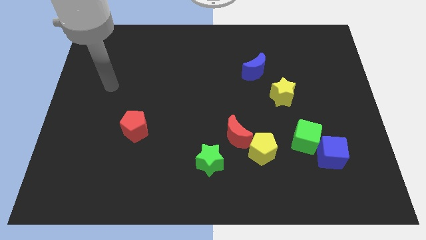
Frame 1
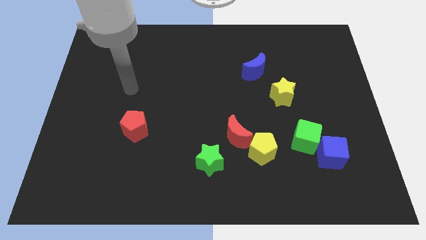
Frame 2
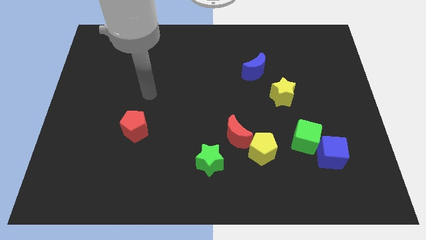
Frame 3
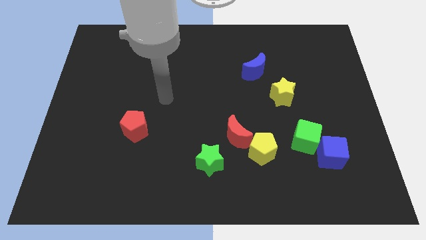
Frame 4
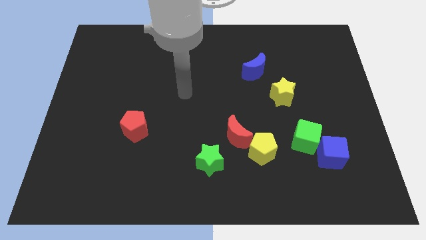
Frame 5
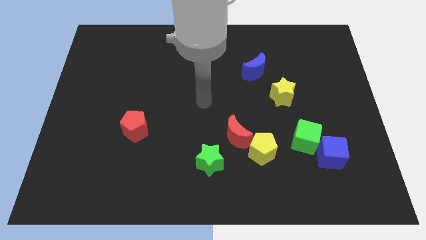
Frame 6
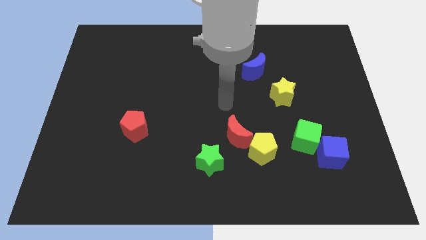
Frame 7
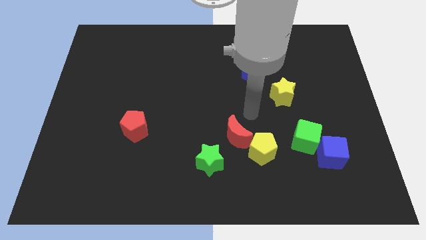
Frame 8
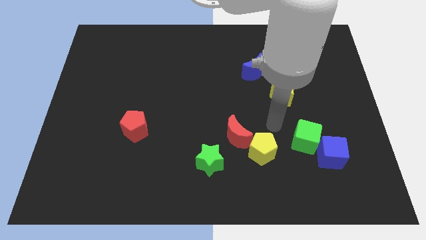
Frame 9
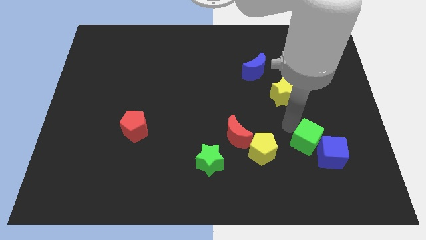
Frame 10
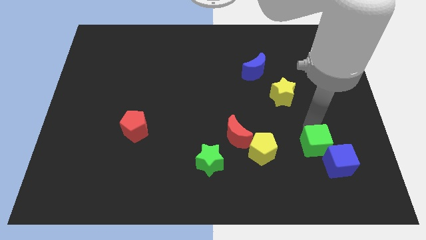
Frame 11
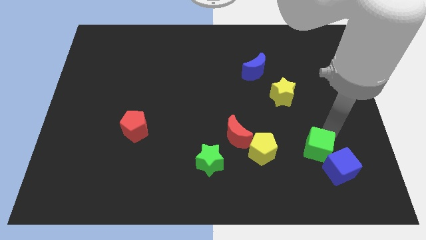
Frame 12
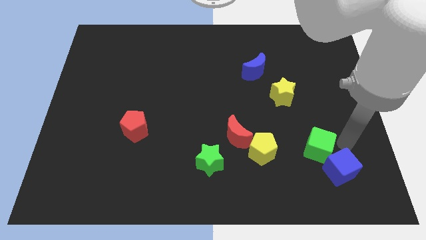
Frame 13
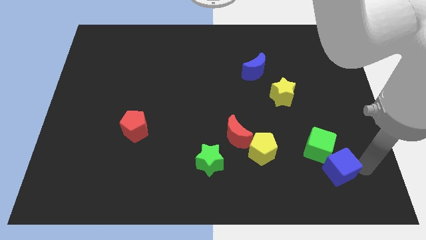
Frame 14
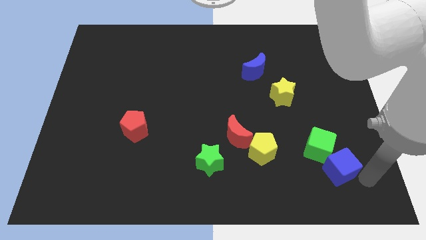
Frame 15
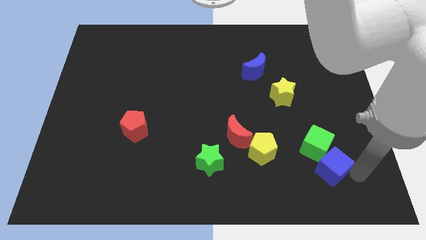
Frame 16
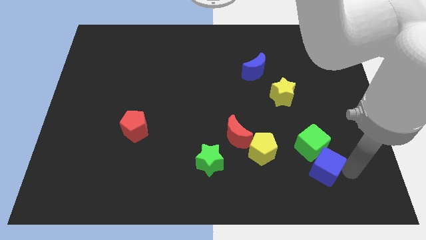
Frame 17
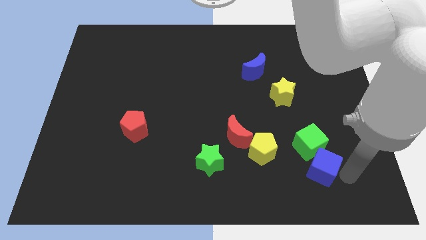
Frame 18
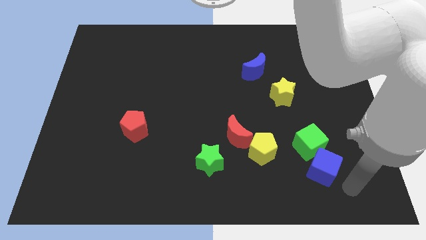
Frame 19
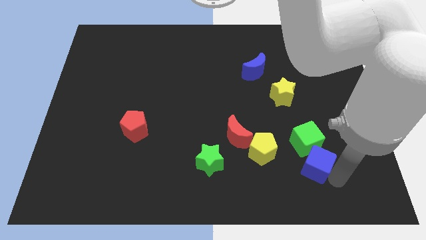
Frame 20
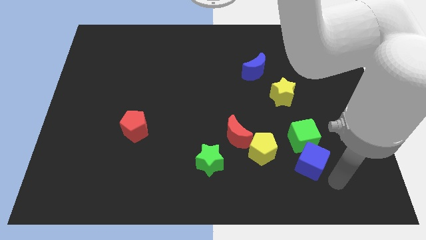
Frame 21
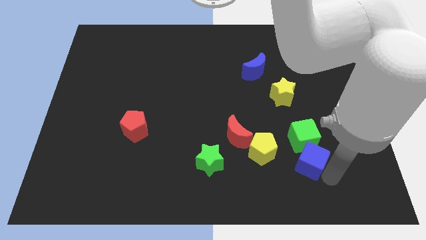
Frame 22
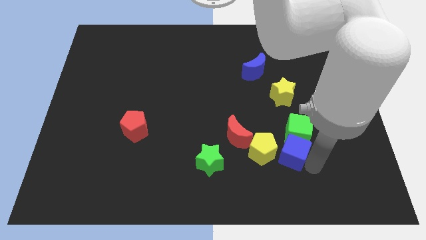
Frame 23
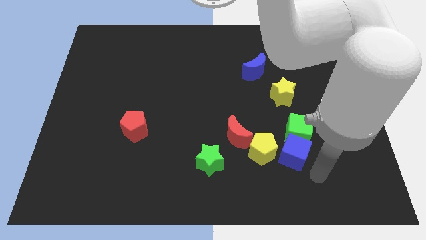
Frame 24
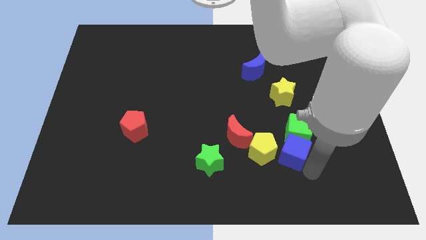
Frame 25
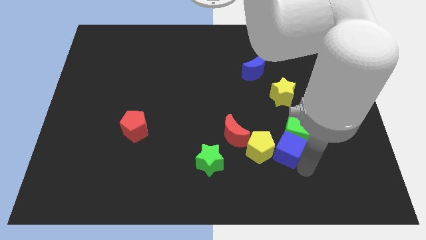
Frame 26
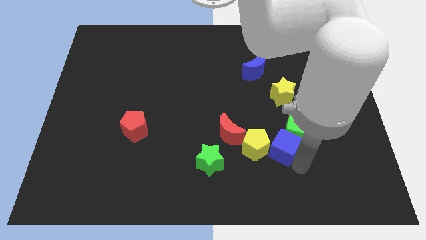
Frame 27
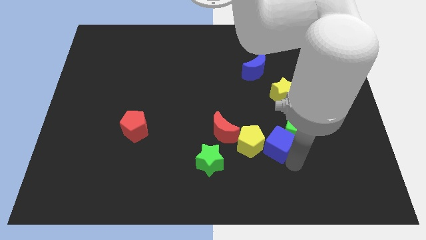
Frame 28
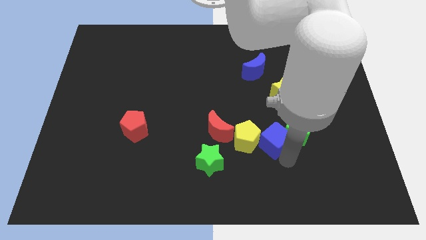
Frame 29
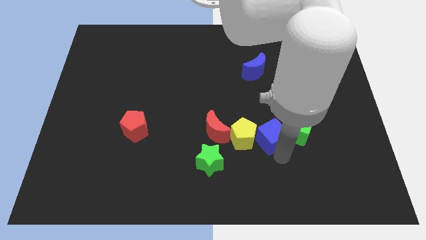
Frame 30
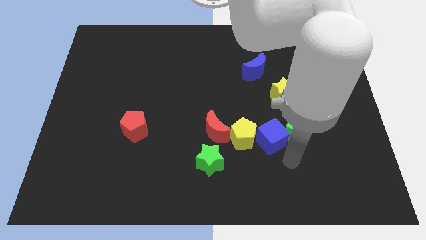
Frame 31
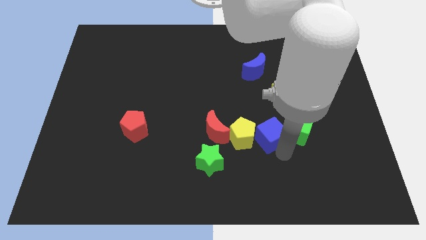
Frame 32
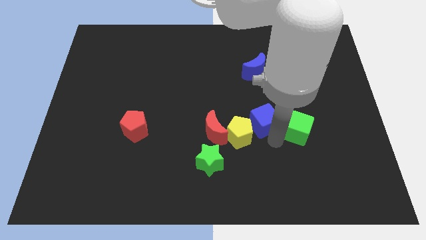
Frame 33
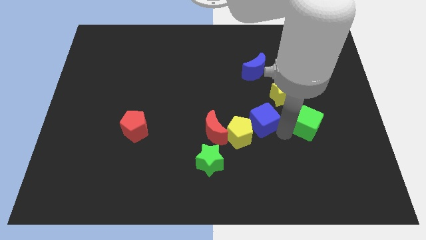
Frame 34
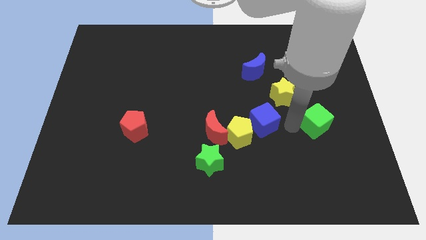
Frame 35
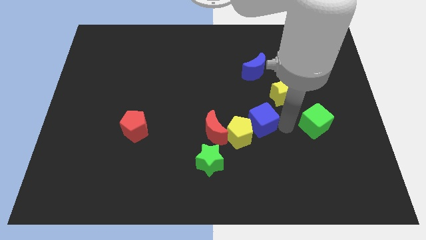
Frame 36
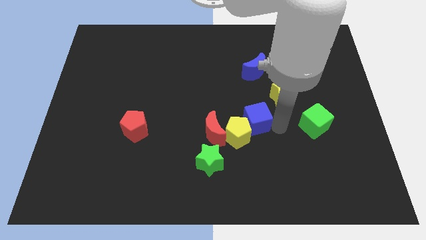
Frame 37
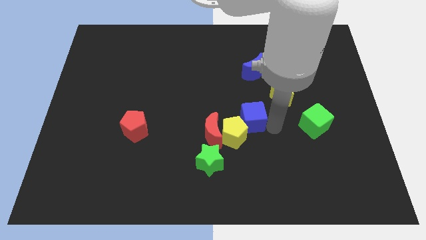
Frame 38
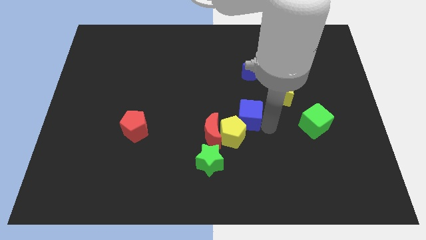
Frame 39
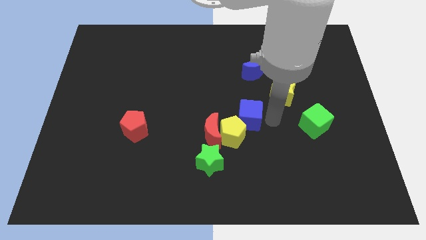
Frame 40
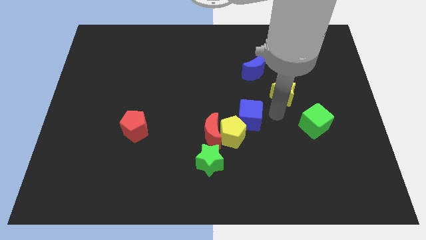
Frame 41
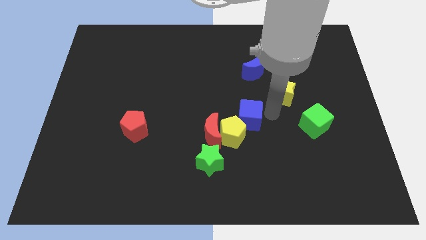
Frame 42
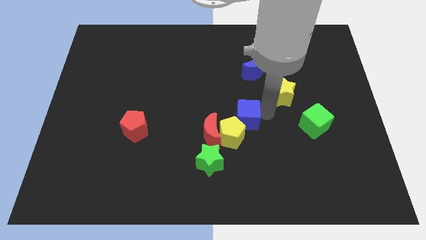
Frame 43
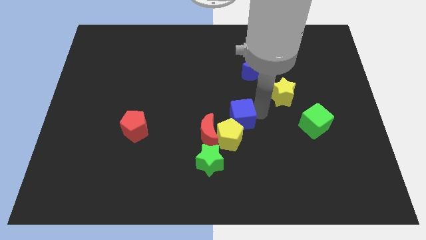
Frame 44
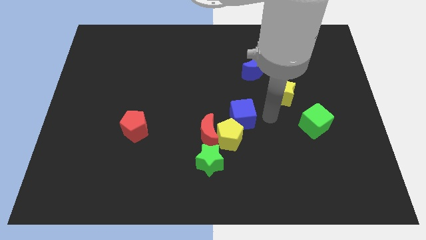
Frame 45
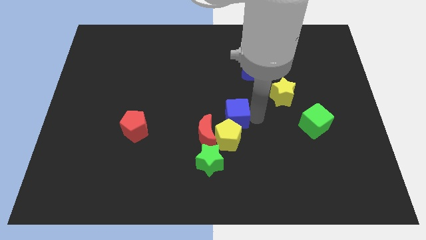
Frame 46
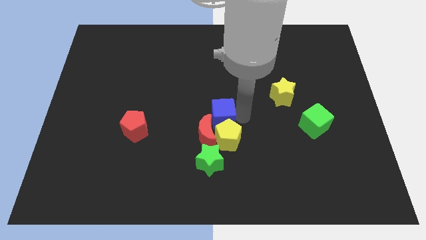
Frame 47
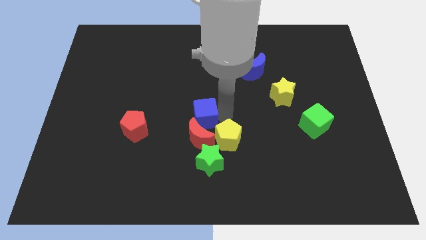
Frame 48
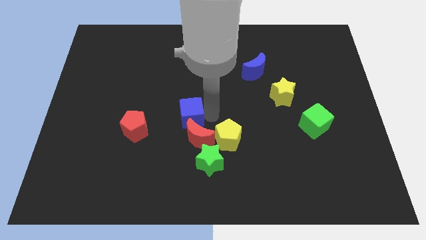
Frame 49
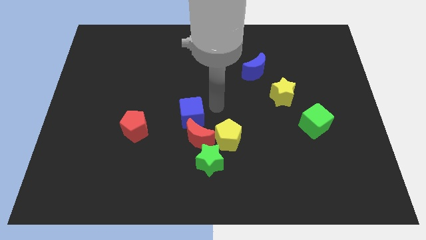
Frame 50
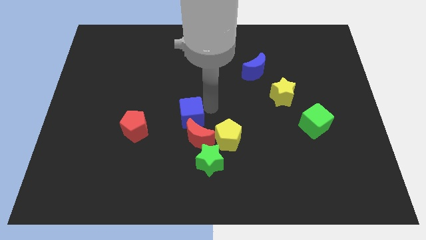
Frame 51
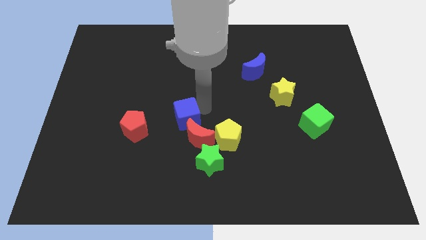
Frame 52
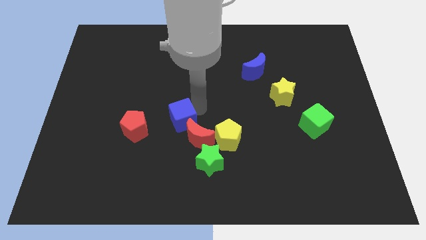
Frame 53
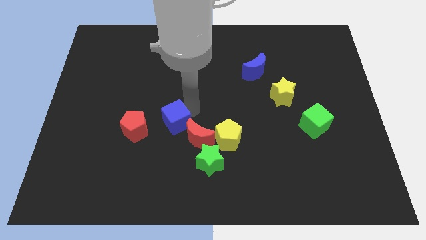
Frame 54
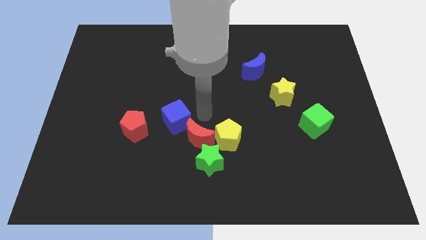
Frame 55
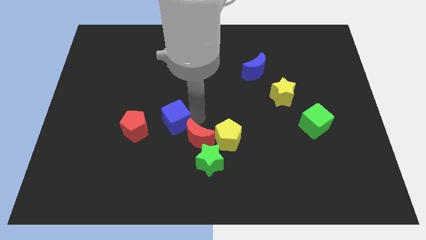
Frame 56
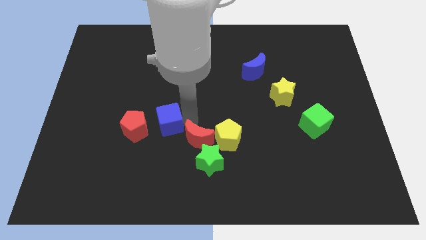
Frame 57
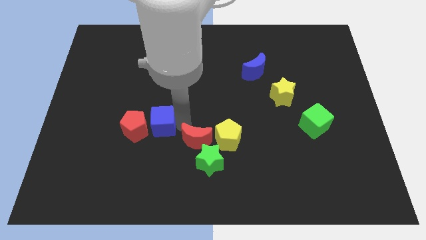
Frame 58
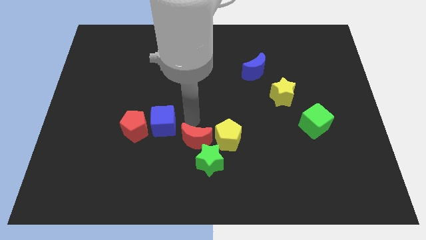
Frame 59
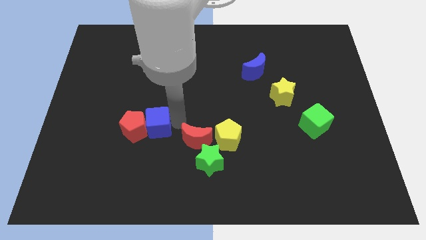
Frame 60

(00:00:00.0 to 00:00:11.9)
put the blue cube next to the red pentagon

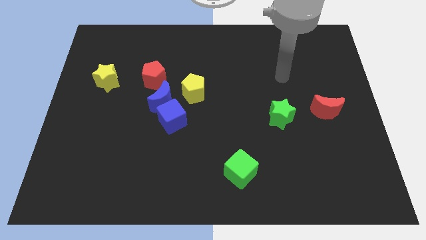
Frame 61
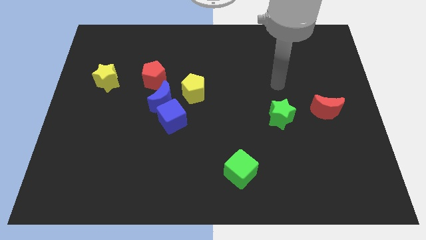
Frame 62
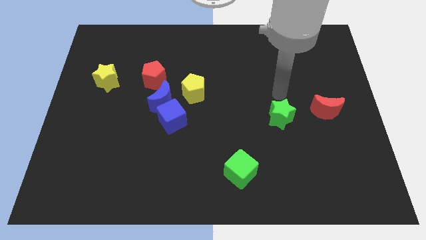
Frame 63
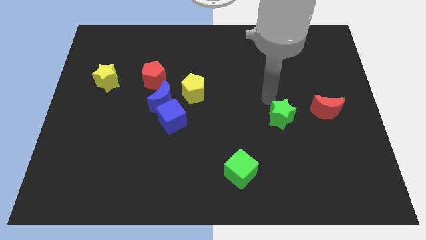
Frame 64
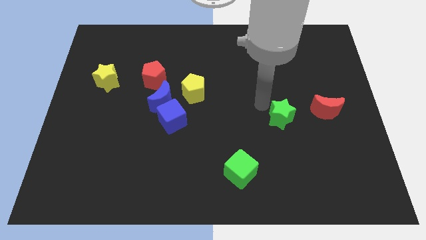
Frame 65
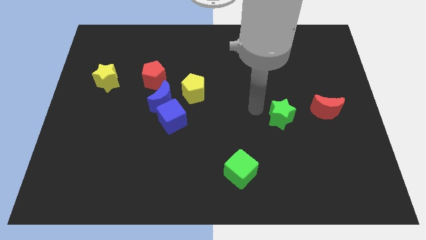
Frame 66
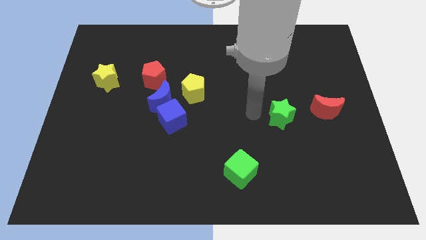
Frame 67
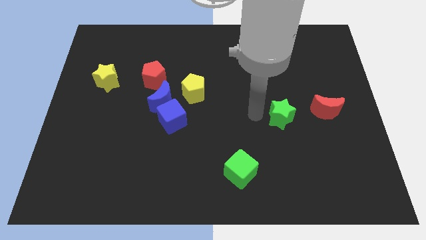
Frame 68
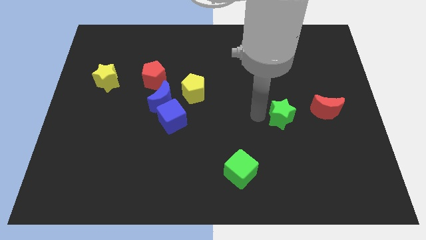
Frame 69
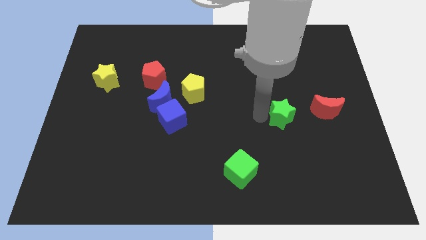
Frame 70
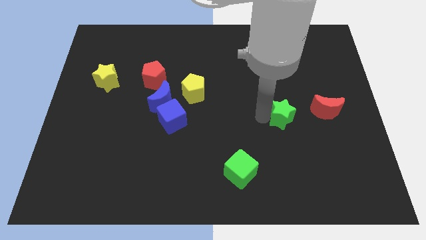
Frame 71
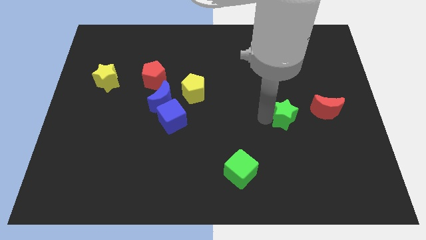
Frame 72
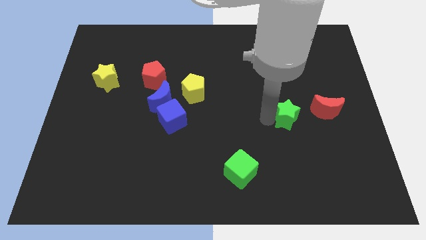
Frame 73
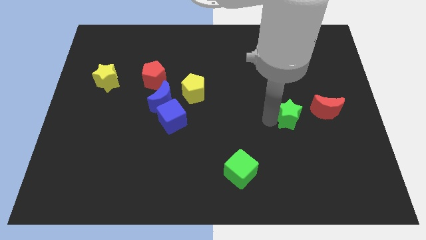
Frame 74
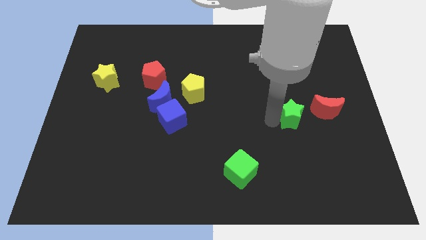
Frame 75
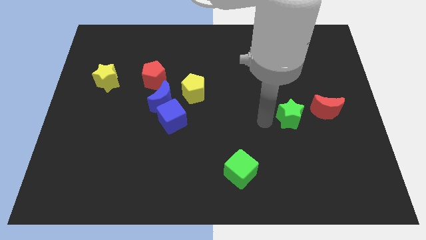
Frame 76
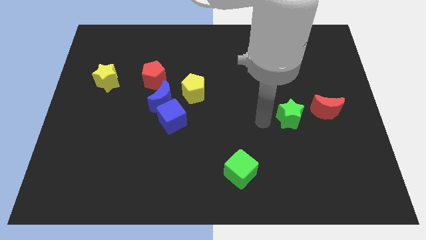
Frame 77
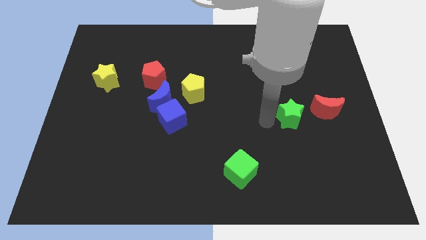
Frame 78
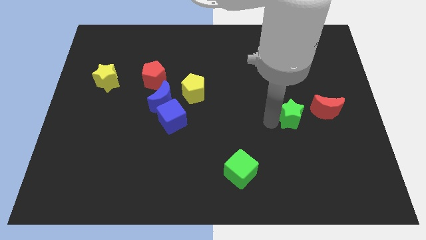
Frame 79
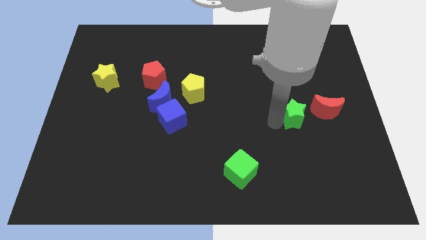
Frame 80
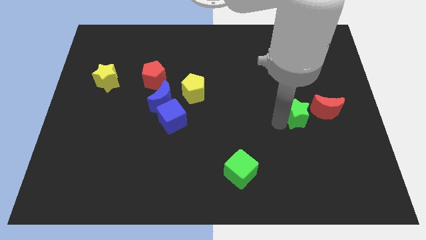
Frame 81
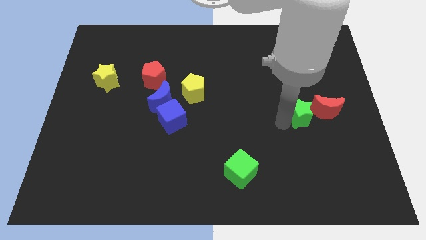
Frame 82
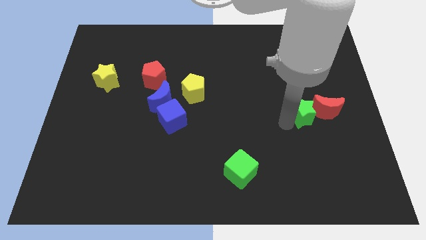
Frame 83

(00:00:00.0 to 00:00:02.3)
push the green star to the red moon
